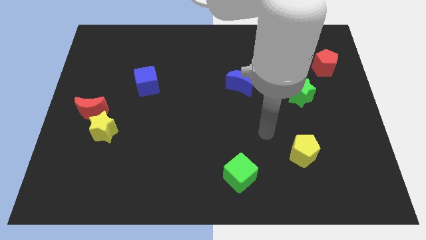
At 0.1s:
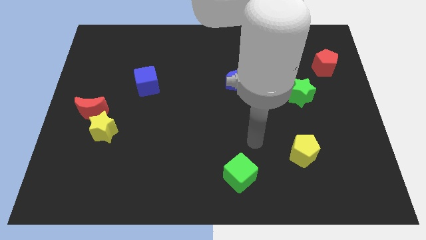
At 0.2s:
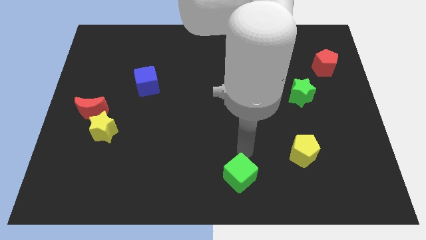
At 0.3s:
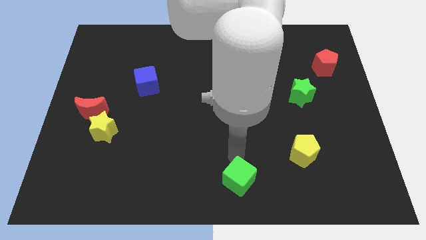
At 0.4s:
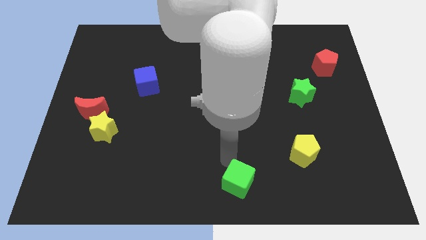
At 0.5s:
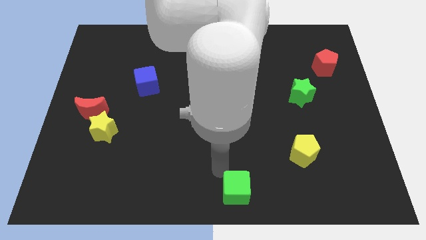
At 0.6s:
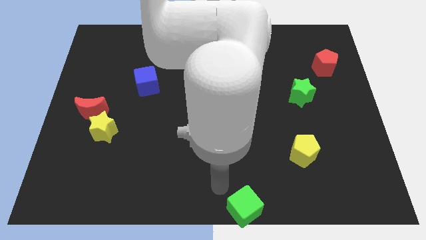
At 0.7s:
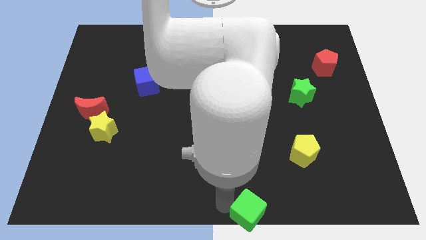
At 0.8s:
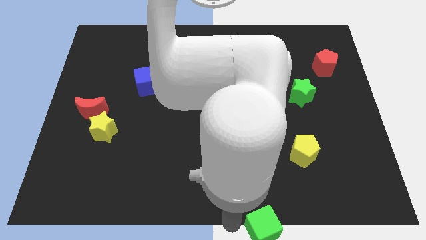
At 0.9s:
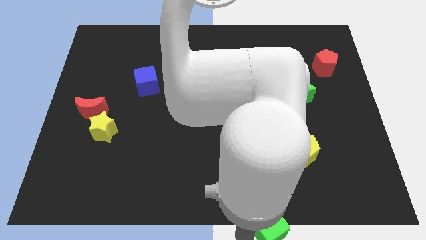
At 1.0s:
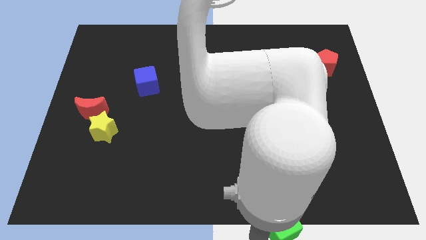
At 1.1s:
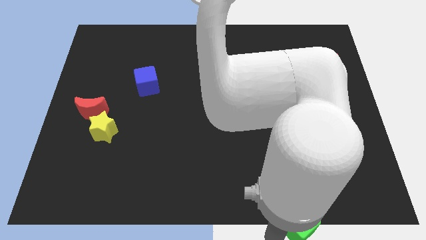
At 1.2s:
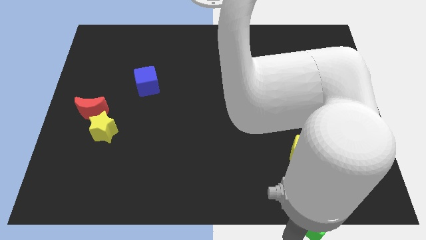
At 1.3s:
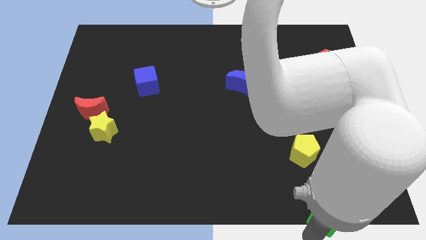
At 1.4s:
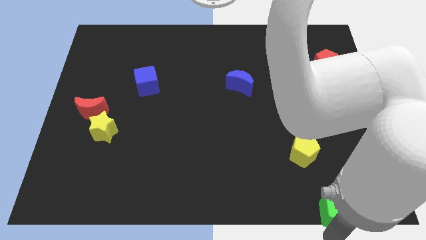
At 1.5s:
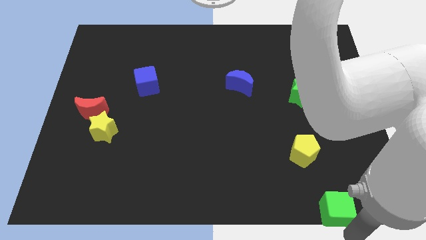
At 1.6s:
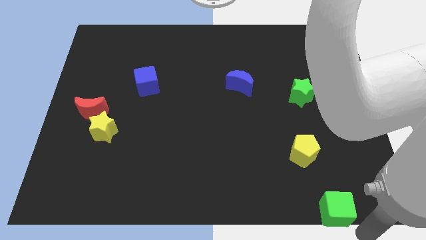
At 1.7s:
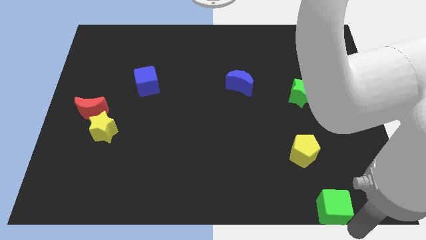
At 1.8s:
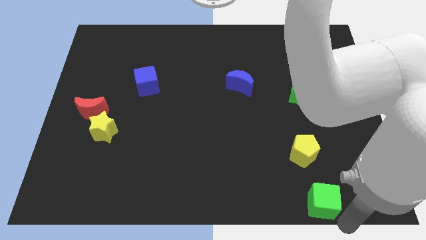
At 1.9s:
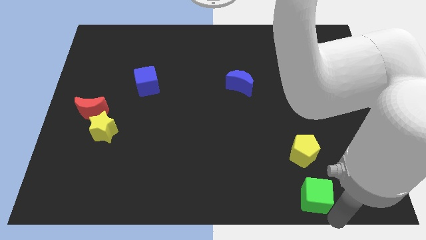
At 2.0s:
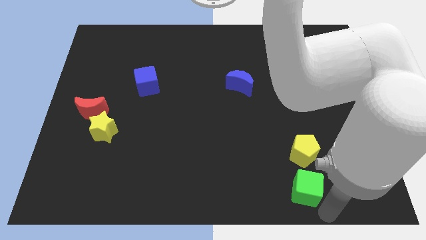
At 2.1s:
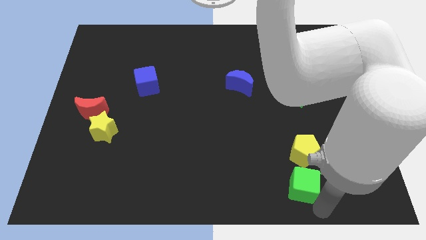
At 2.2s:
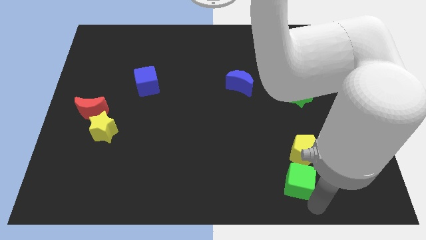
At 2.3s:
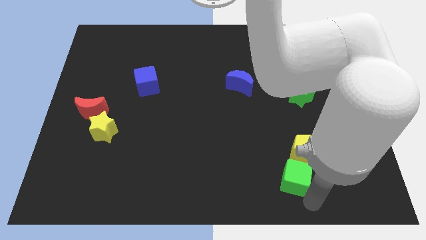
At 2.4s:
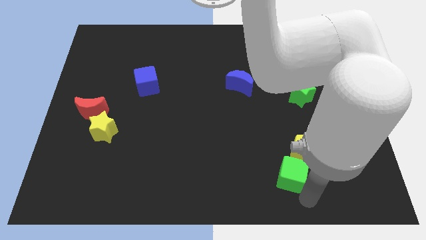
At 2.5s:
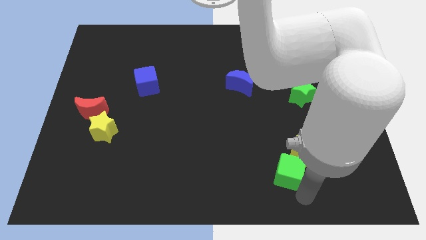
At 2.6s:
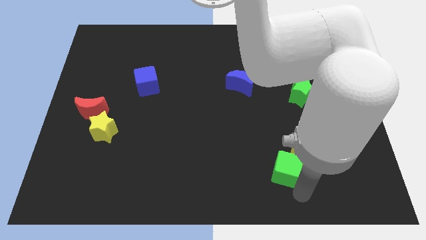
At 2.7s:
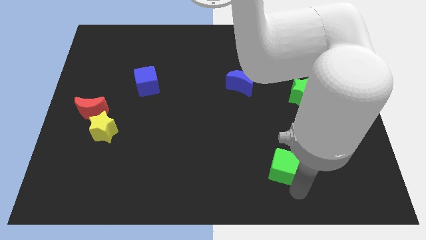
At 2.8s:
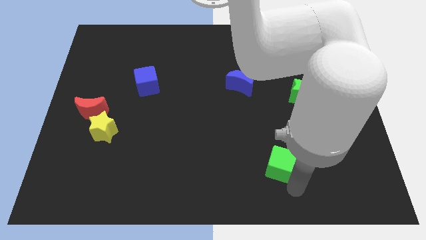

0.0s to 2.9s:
move the green cube somewhat diagonally upwards and right

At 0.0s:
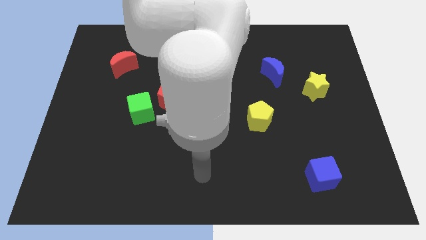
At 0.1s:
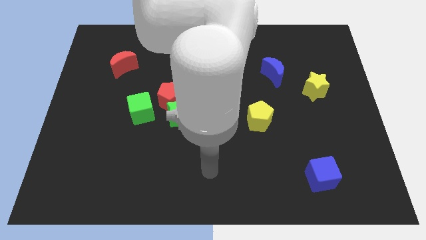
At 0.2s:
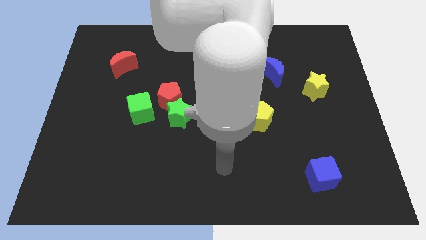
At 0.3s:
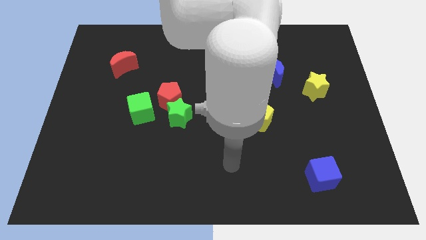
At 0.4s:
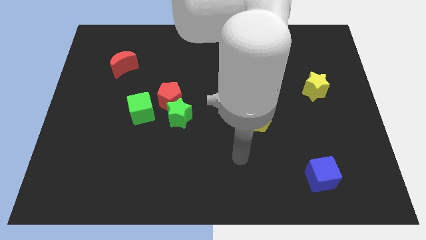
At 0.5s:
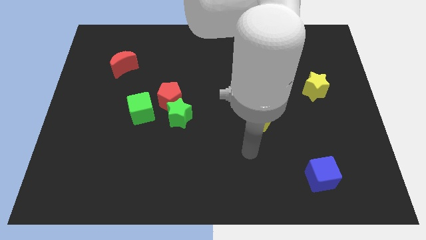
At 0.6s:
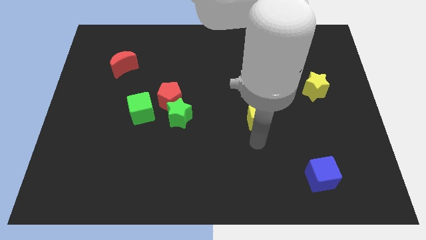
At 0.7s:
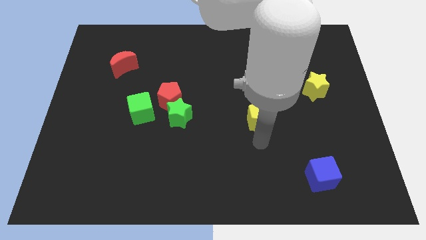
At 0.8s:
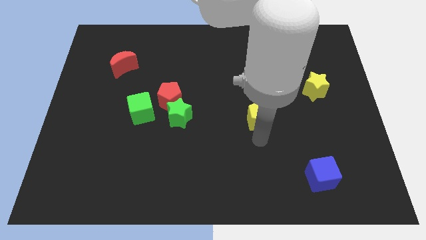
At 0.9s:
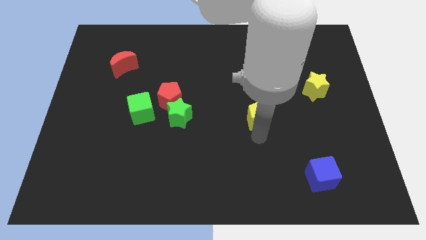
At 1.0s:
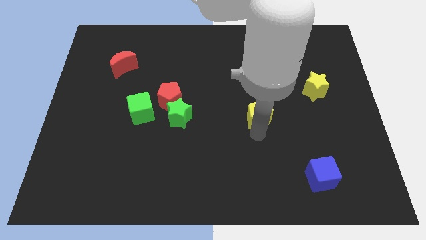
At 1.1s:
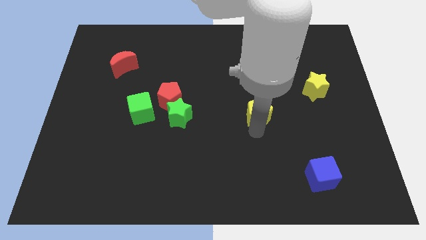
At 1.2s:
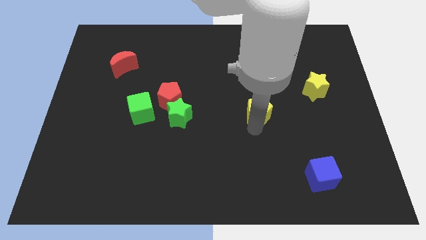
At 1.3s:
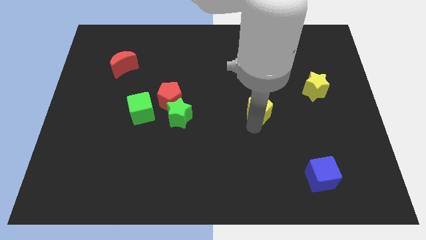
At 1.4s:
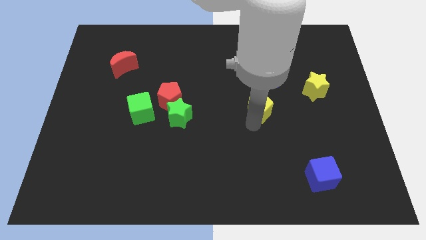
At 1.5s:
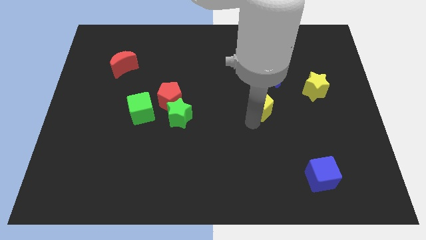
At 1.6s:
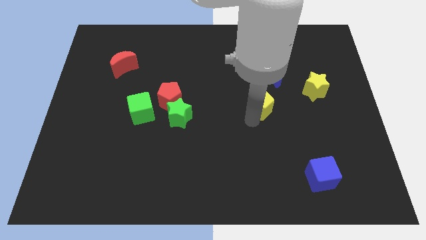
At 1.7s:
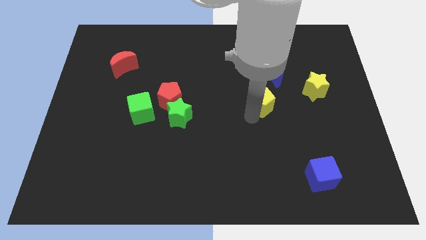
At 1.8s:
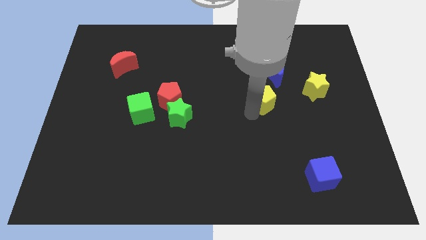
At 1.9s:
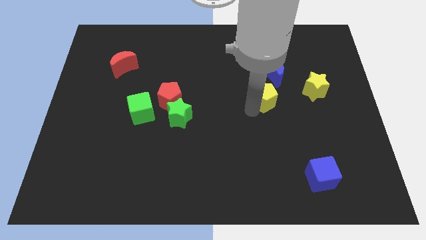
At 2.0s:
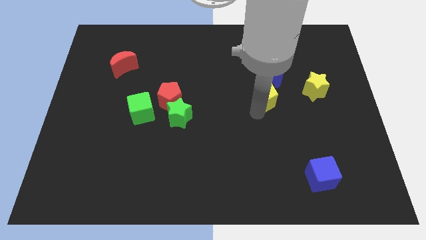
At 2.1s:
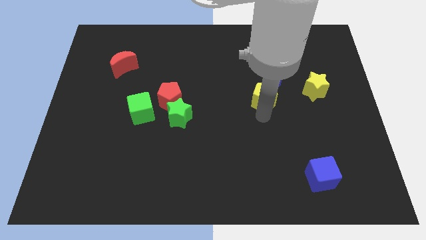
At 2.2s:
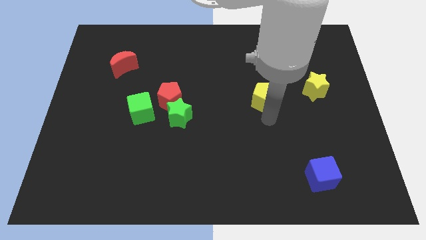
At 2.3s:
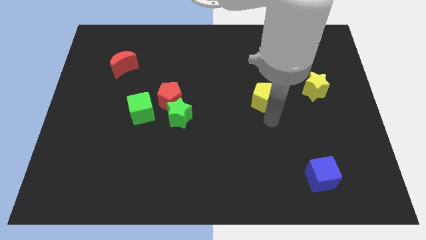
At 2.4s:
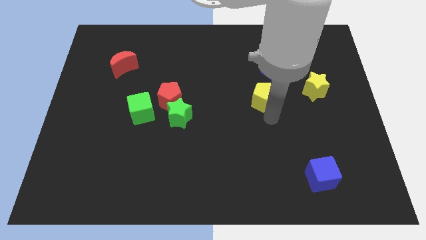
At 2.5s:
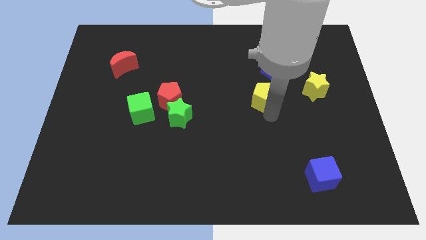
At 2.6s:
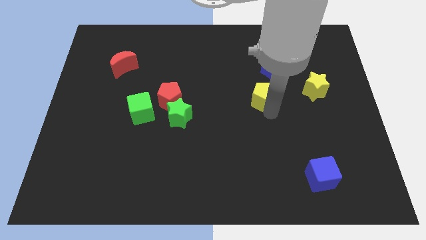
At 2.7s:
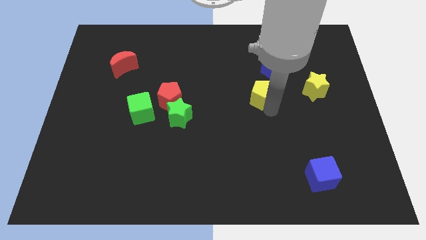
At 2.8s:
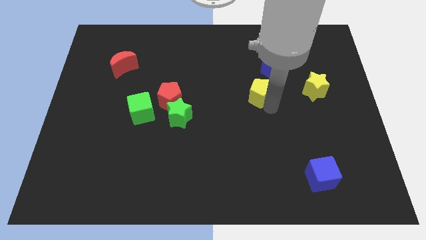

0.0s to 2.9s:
move the yellow pentagon a bit upwards

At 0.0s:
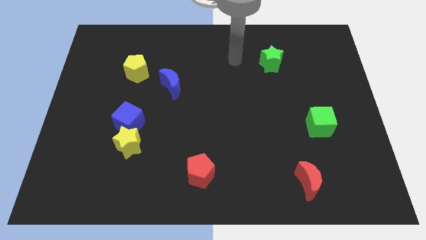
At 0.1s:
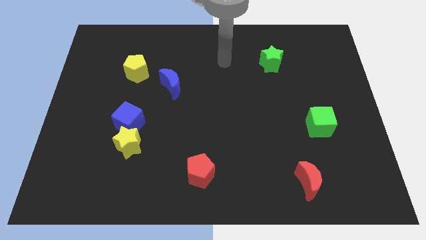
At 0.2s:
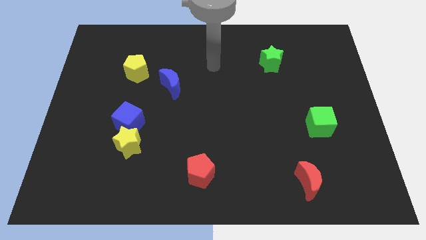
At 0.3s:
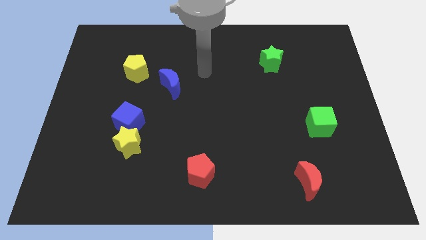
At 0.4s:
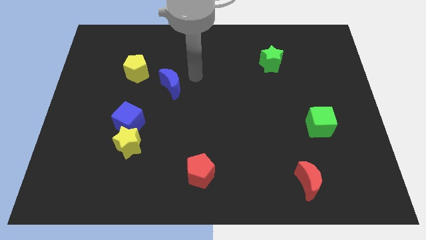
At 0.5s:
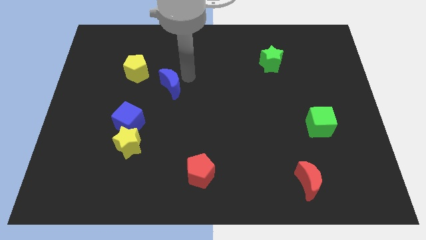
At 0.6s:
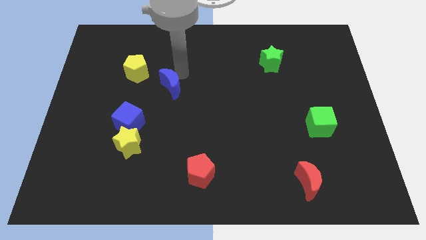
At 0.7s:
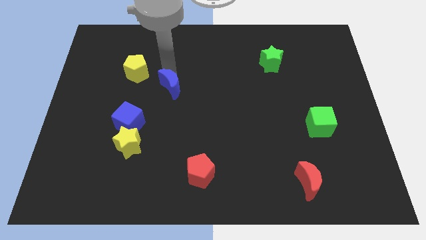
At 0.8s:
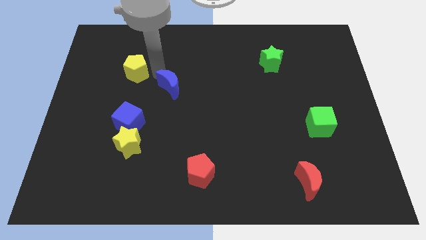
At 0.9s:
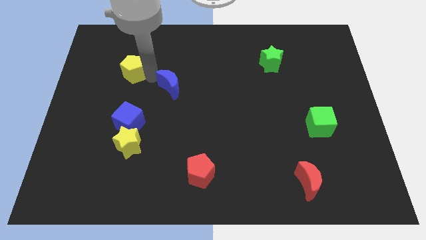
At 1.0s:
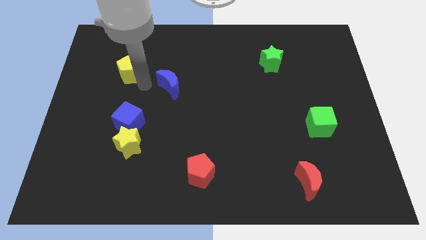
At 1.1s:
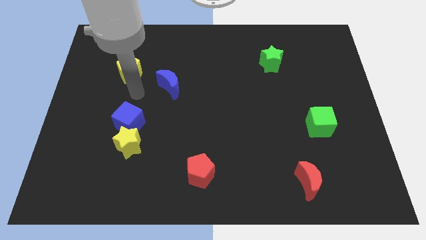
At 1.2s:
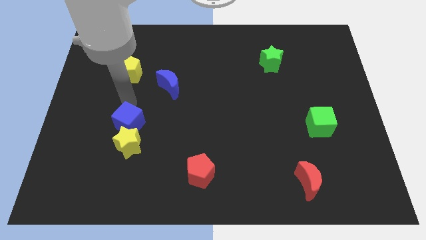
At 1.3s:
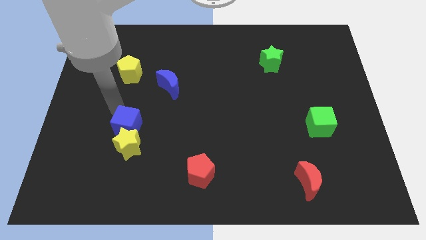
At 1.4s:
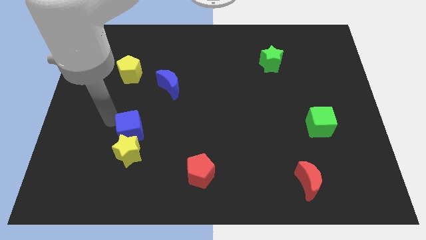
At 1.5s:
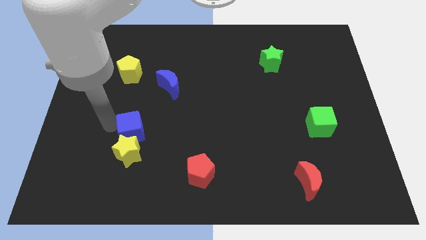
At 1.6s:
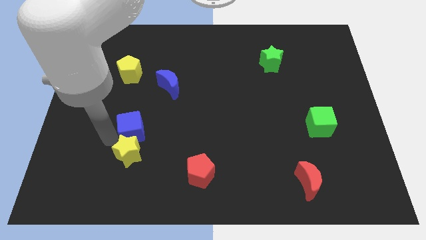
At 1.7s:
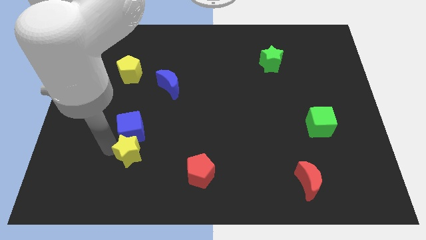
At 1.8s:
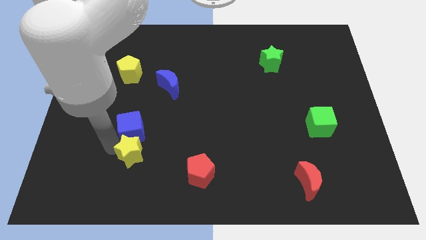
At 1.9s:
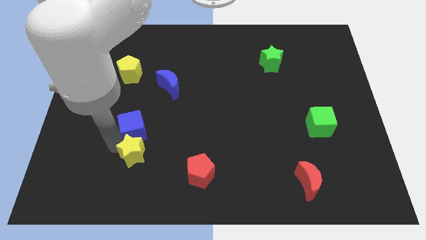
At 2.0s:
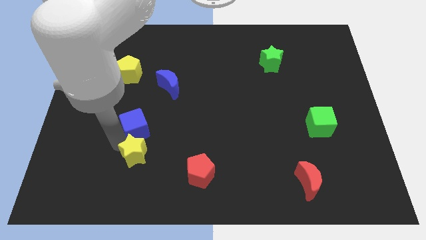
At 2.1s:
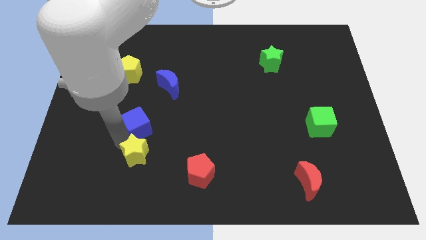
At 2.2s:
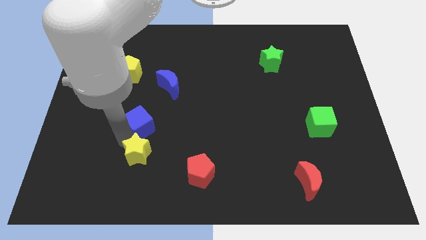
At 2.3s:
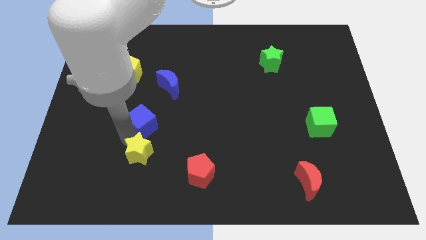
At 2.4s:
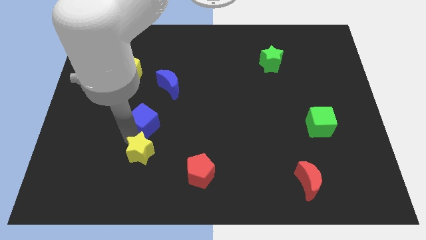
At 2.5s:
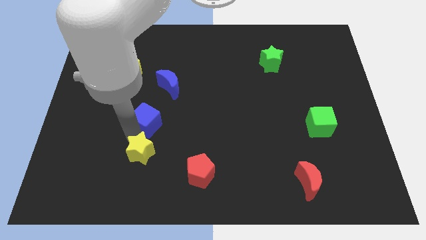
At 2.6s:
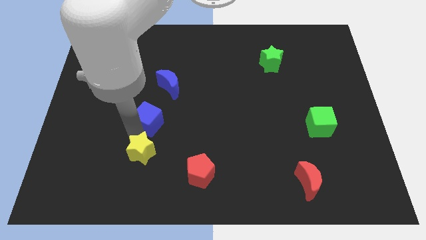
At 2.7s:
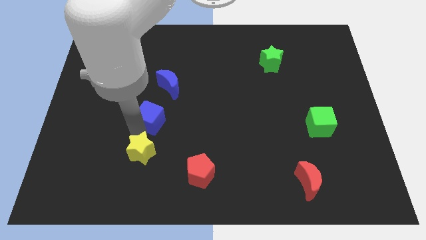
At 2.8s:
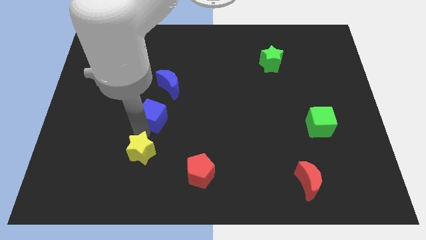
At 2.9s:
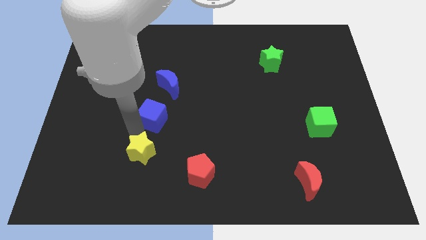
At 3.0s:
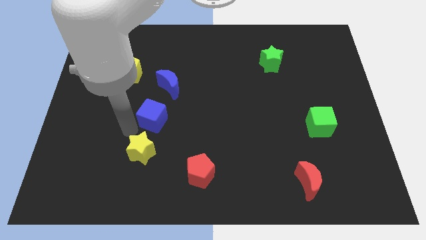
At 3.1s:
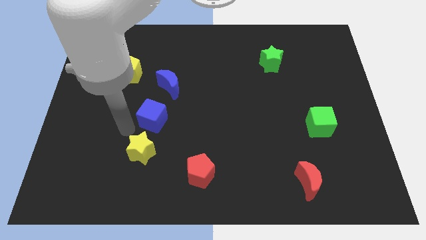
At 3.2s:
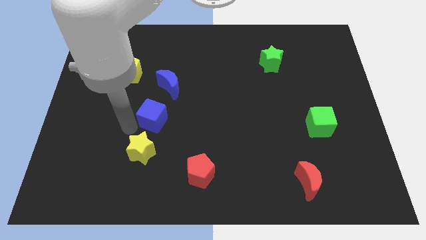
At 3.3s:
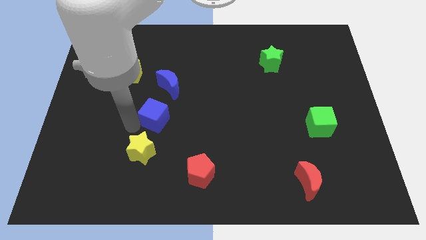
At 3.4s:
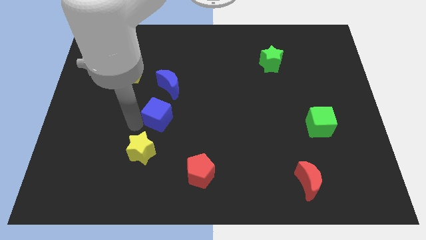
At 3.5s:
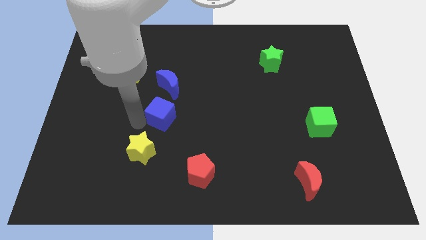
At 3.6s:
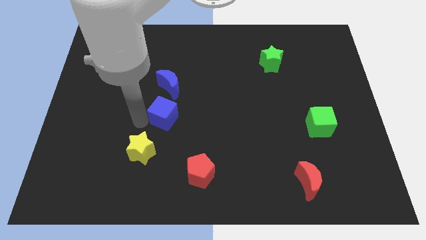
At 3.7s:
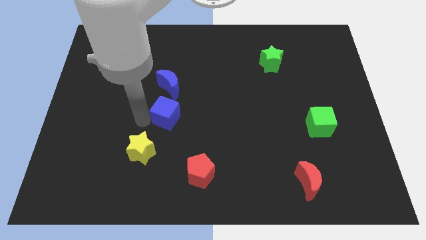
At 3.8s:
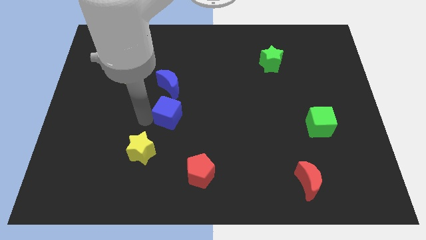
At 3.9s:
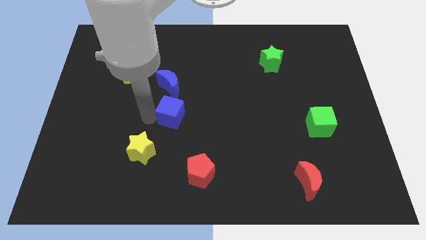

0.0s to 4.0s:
push the blue cube up and to the right slightly
